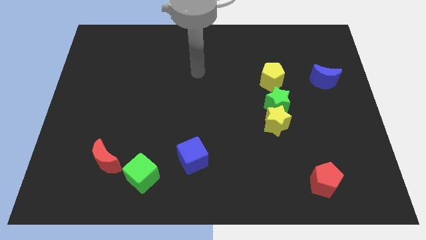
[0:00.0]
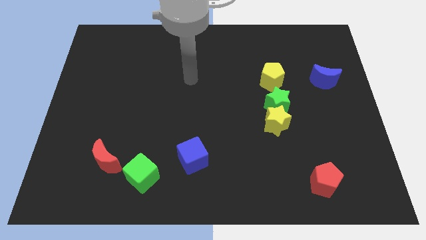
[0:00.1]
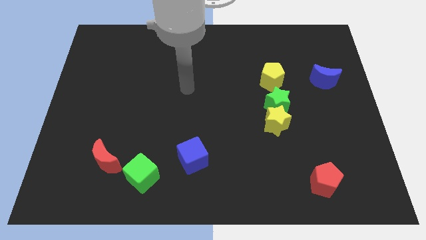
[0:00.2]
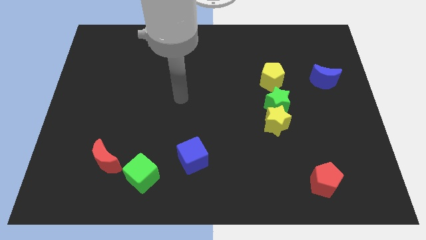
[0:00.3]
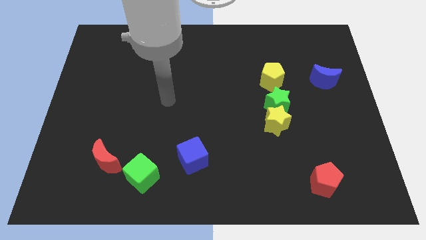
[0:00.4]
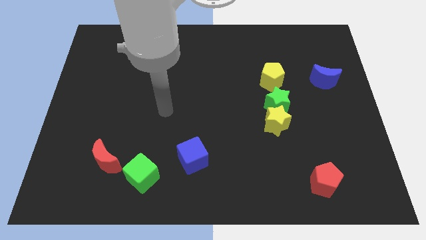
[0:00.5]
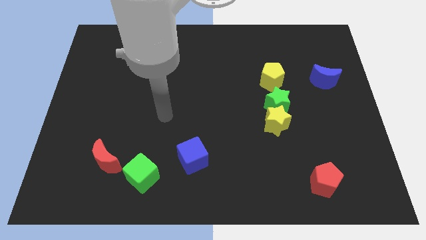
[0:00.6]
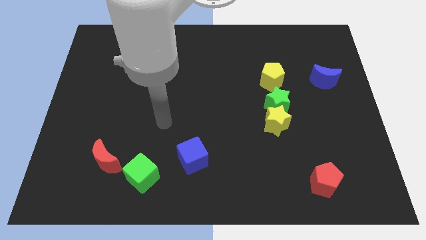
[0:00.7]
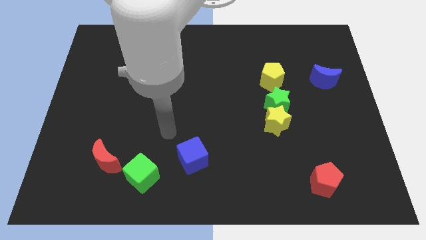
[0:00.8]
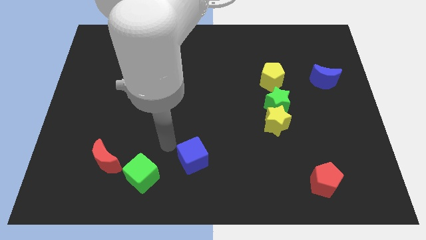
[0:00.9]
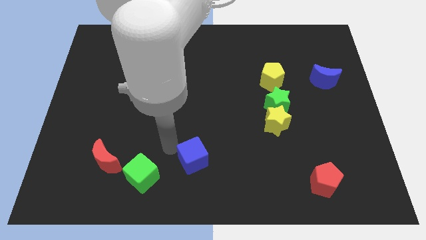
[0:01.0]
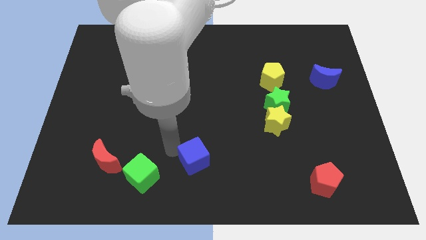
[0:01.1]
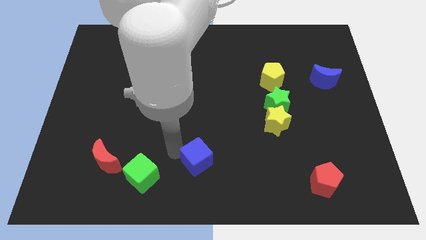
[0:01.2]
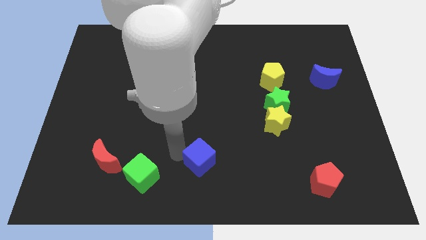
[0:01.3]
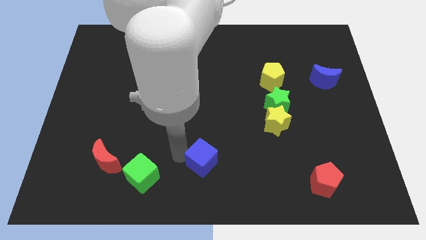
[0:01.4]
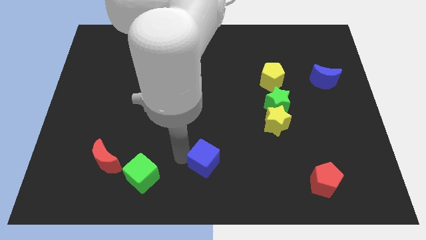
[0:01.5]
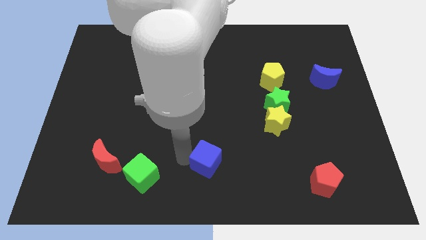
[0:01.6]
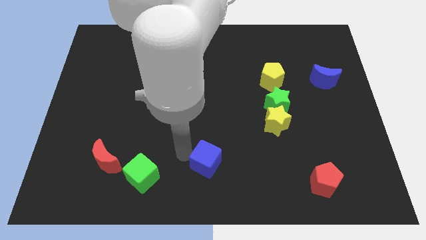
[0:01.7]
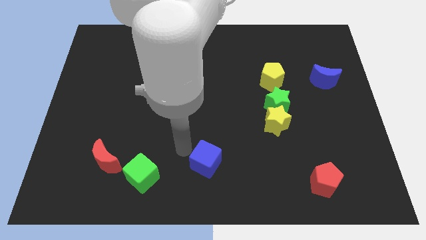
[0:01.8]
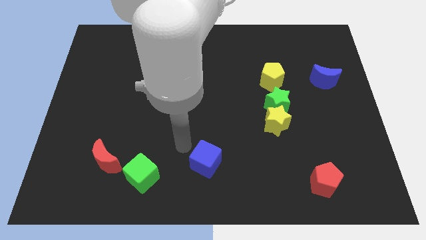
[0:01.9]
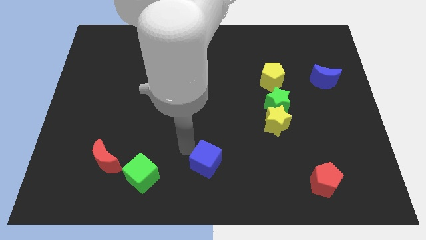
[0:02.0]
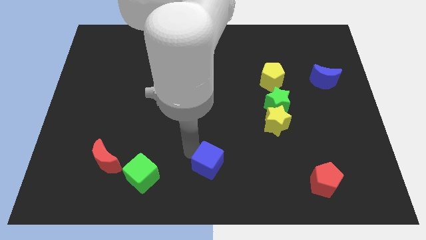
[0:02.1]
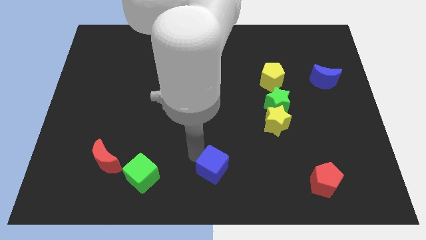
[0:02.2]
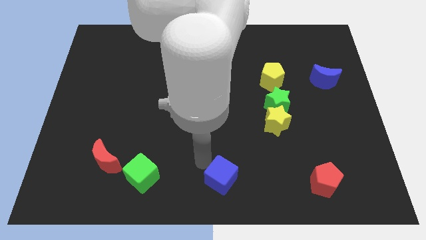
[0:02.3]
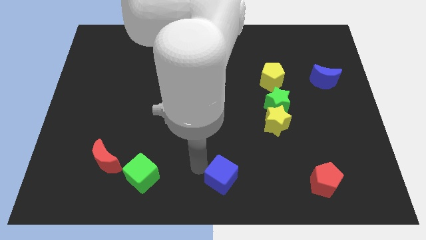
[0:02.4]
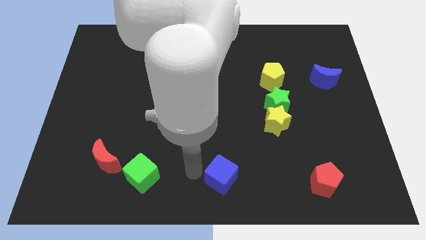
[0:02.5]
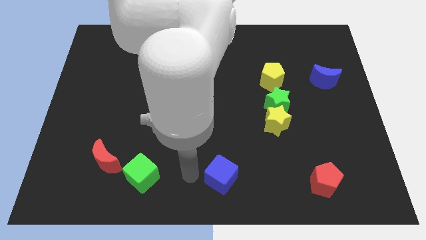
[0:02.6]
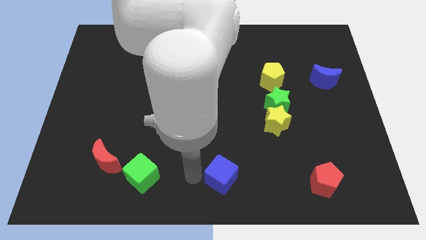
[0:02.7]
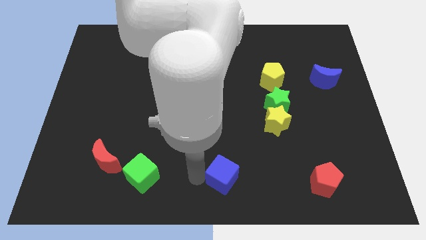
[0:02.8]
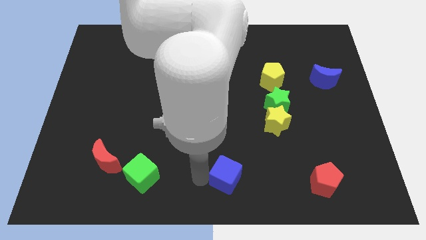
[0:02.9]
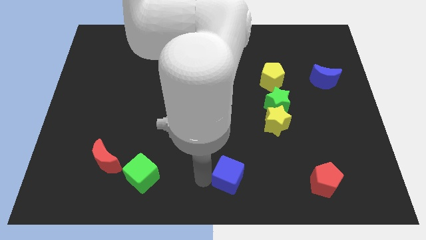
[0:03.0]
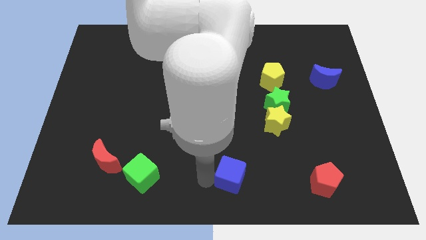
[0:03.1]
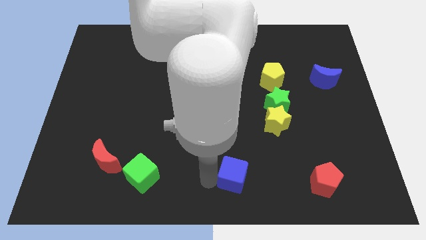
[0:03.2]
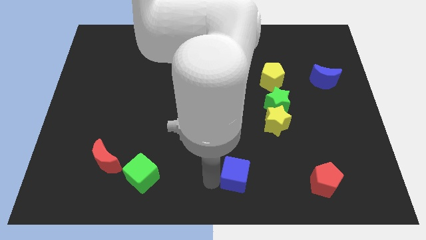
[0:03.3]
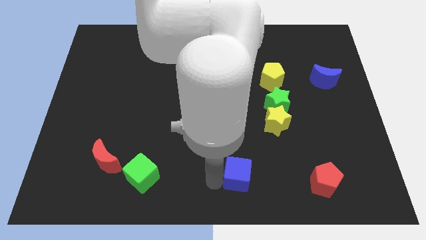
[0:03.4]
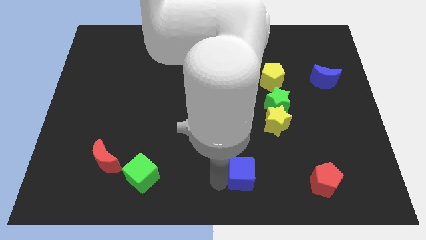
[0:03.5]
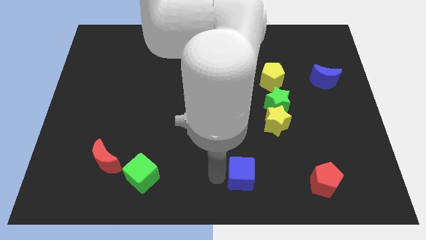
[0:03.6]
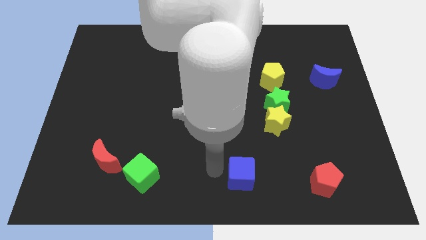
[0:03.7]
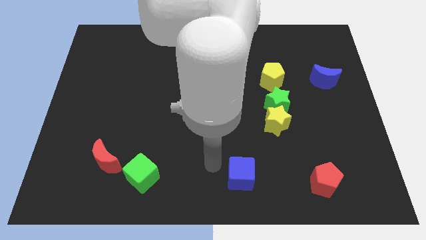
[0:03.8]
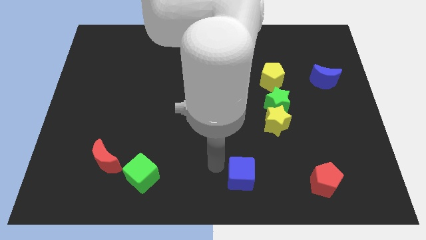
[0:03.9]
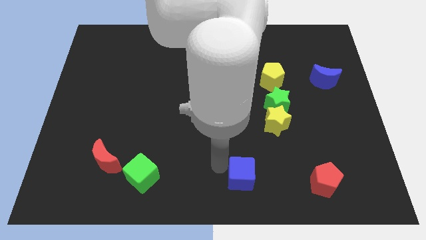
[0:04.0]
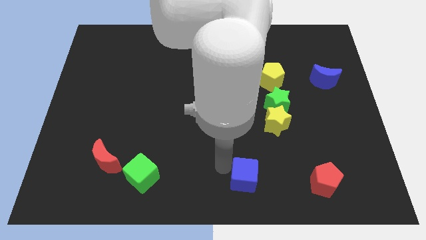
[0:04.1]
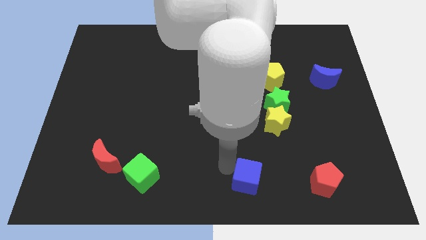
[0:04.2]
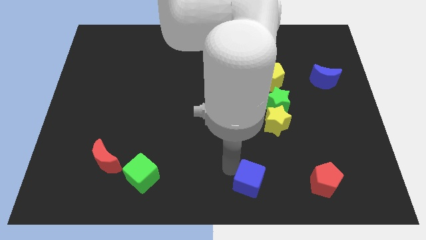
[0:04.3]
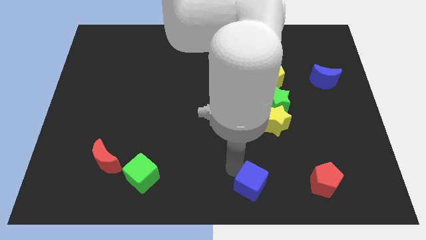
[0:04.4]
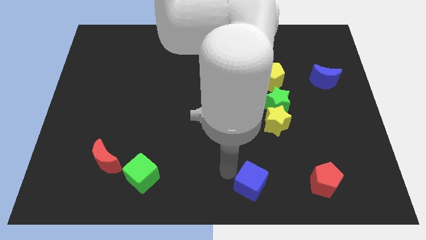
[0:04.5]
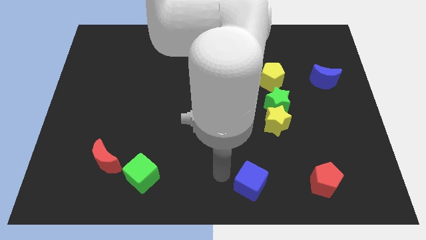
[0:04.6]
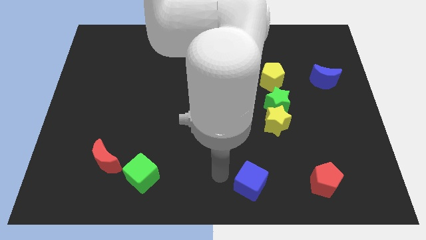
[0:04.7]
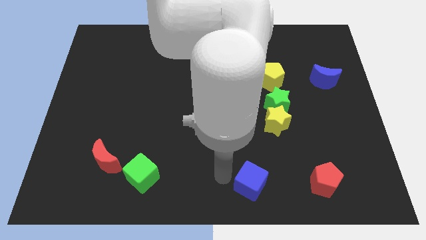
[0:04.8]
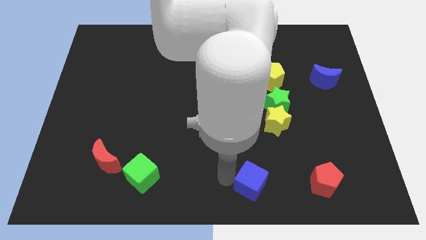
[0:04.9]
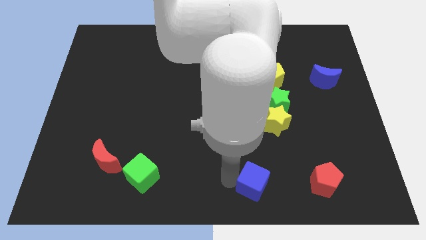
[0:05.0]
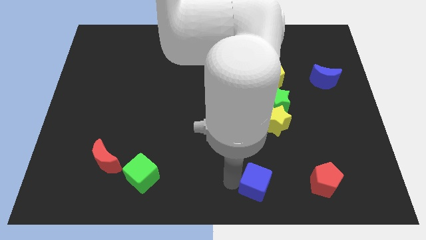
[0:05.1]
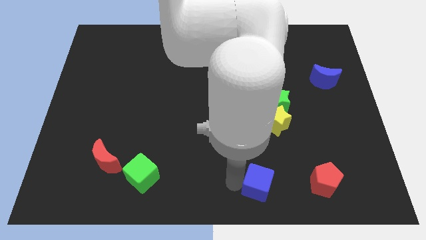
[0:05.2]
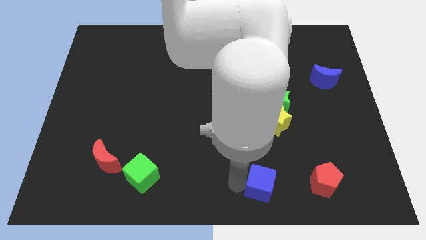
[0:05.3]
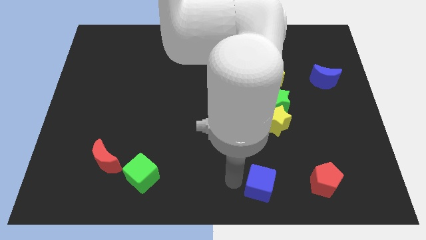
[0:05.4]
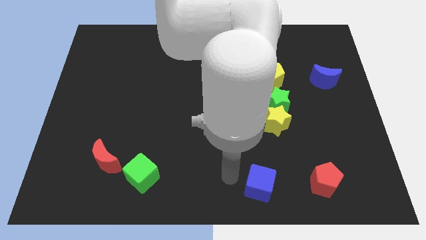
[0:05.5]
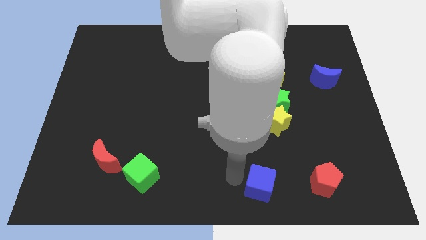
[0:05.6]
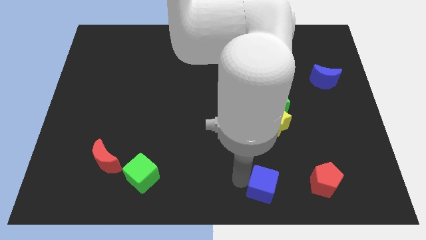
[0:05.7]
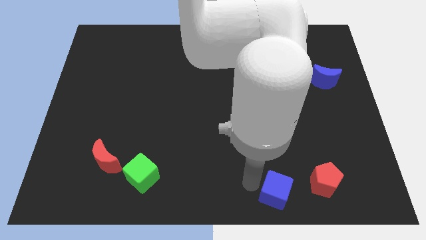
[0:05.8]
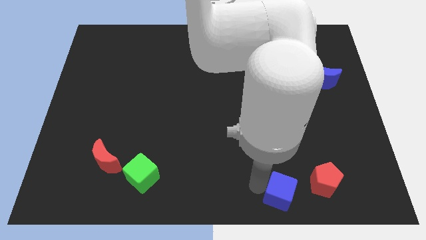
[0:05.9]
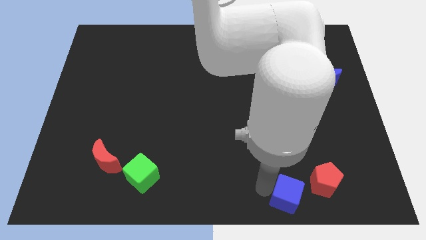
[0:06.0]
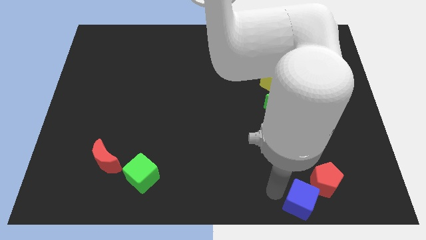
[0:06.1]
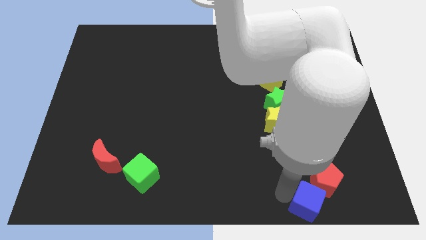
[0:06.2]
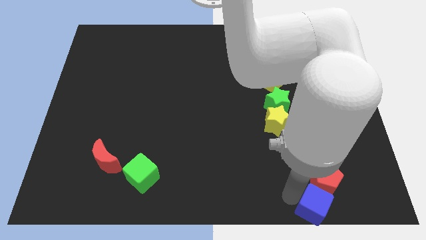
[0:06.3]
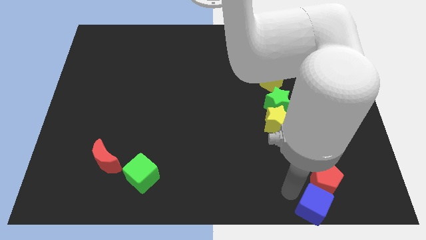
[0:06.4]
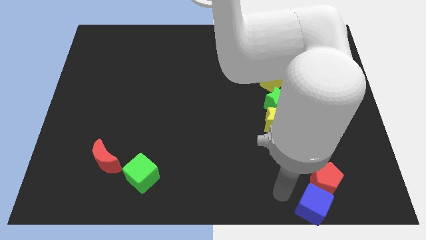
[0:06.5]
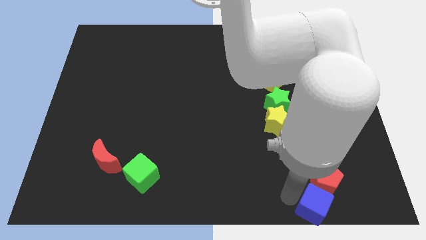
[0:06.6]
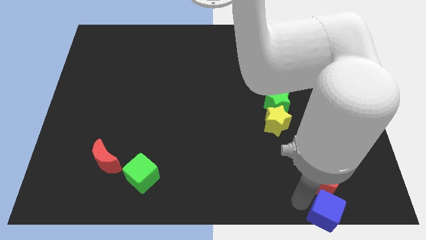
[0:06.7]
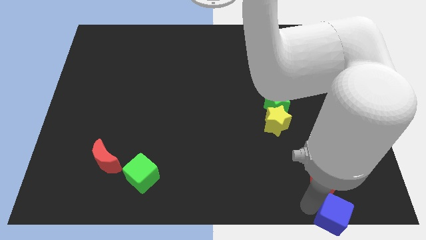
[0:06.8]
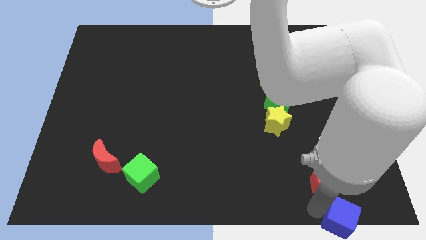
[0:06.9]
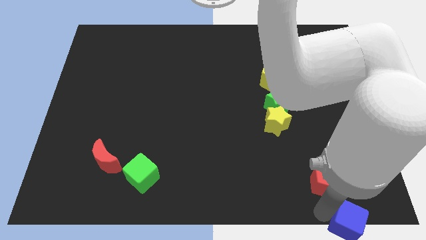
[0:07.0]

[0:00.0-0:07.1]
push the blue cube to the bottom right

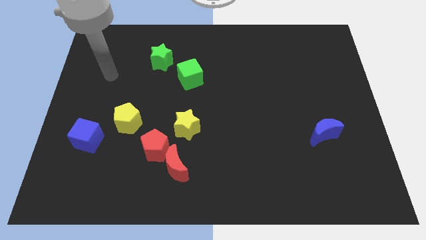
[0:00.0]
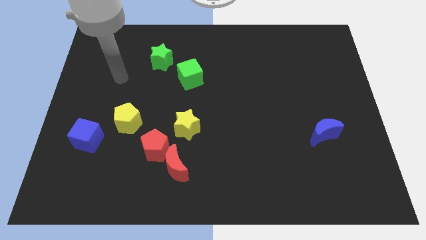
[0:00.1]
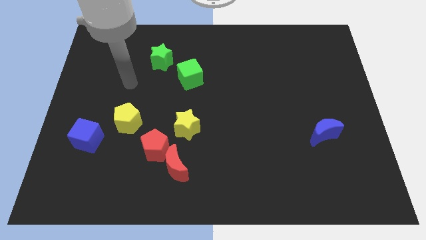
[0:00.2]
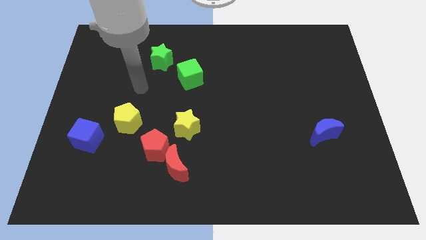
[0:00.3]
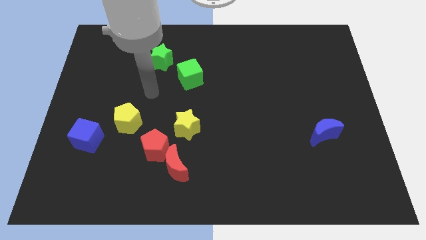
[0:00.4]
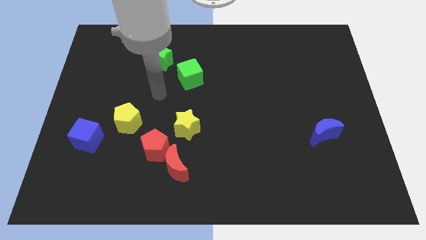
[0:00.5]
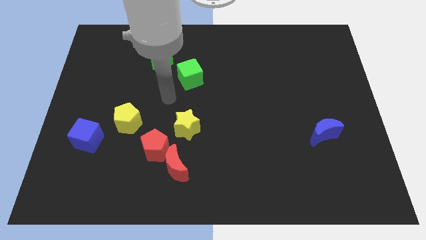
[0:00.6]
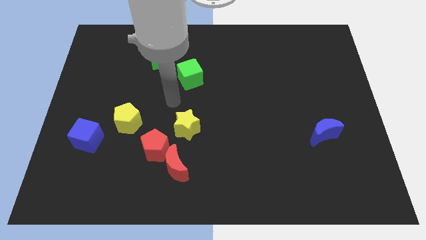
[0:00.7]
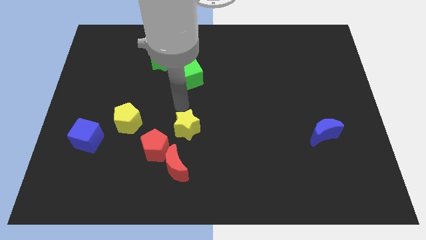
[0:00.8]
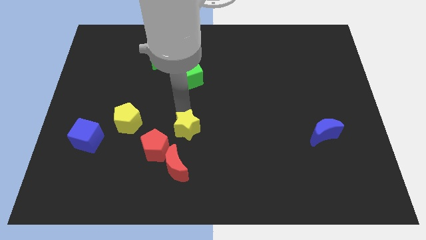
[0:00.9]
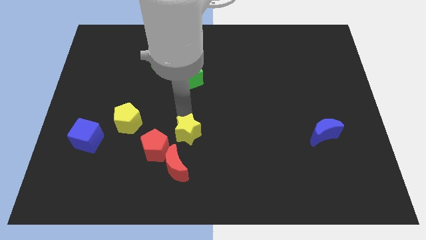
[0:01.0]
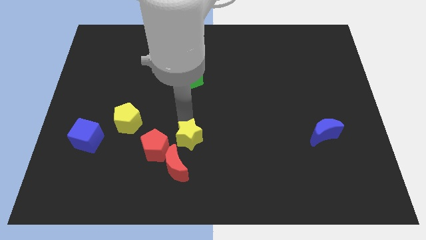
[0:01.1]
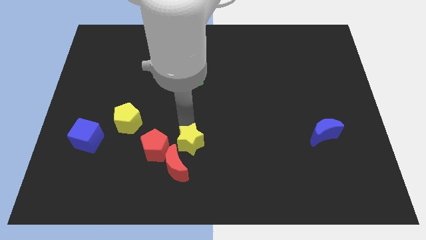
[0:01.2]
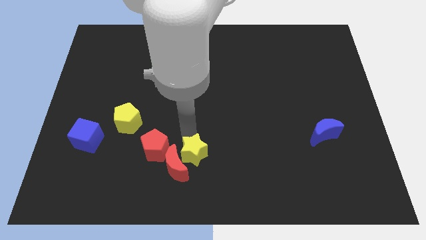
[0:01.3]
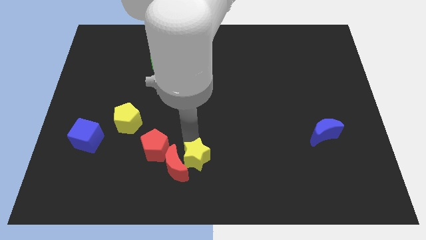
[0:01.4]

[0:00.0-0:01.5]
move the yellow star to the bottom side
